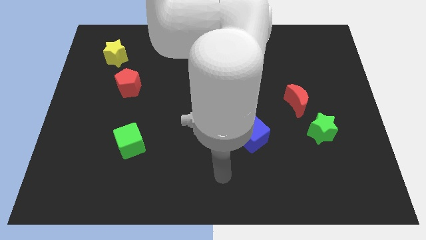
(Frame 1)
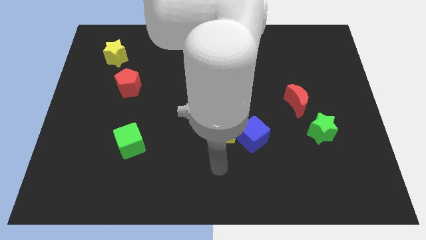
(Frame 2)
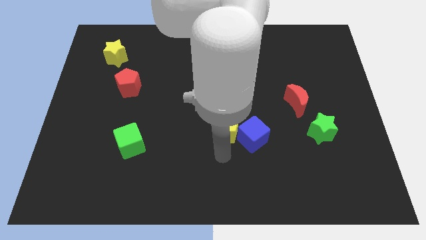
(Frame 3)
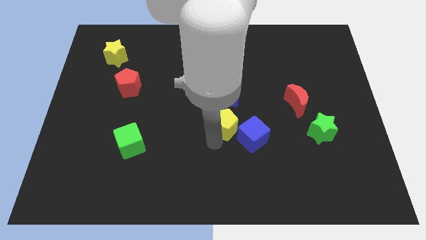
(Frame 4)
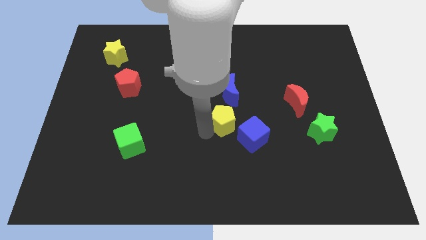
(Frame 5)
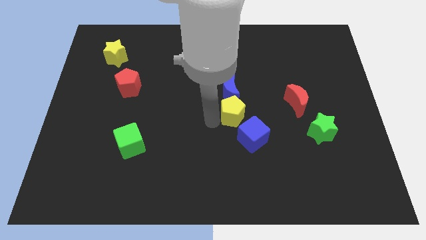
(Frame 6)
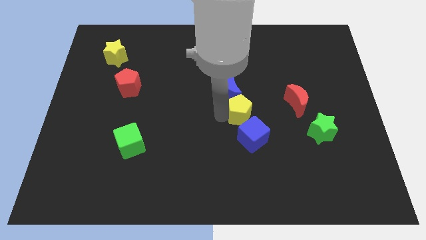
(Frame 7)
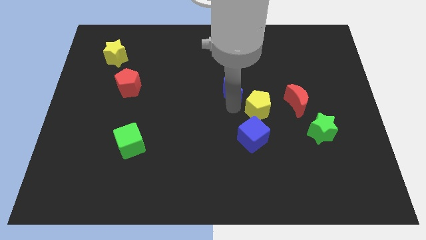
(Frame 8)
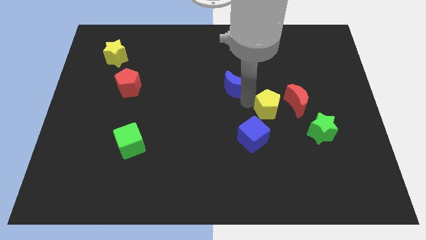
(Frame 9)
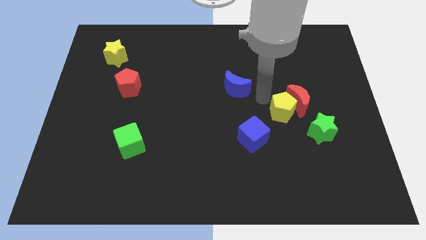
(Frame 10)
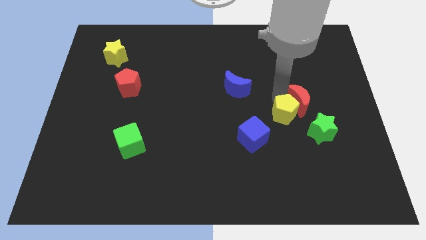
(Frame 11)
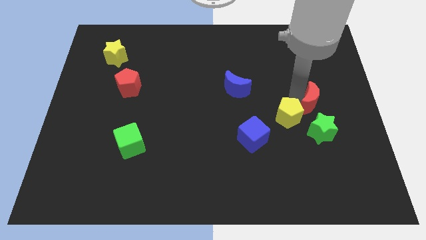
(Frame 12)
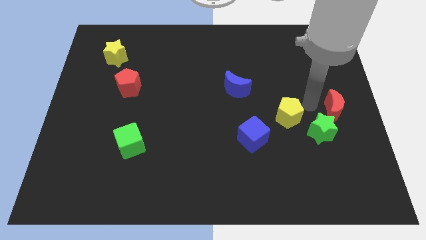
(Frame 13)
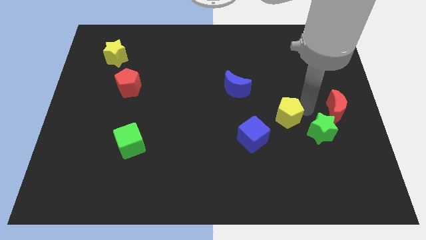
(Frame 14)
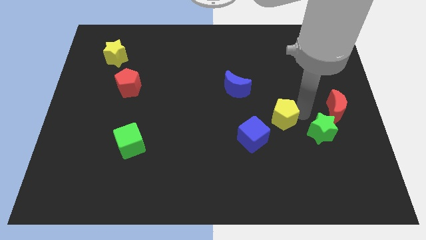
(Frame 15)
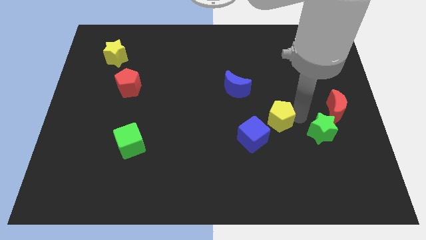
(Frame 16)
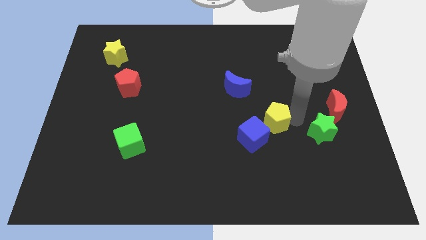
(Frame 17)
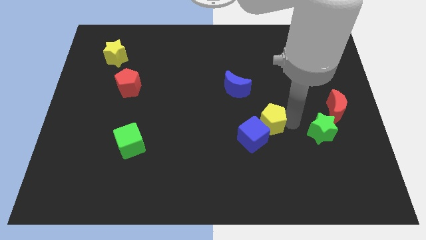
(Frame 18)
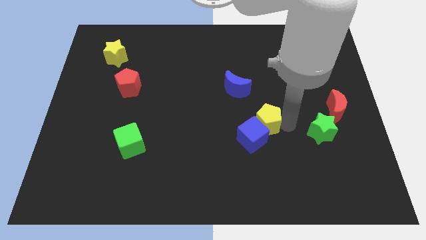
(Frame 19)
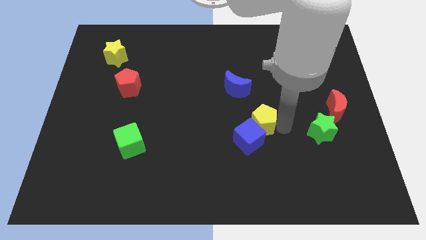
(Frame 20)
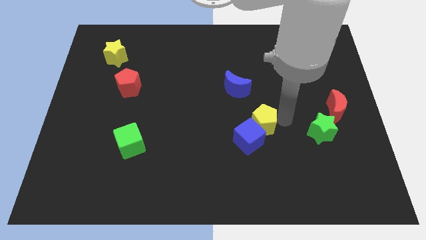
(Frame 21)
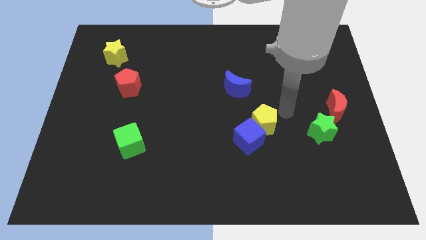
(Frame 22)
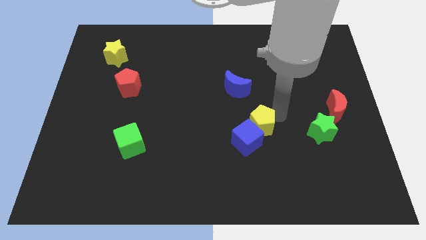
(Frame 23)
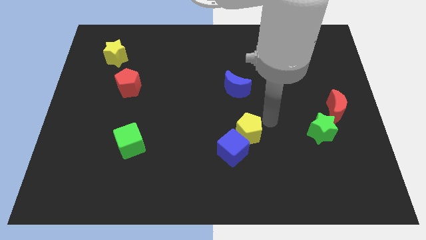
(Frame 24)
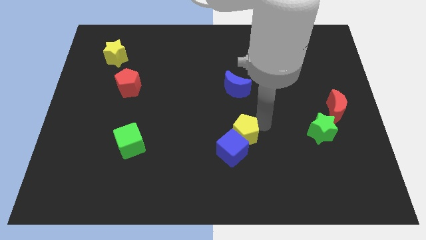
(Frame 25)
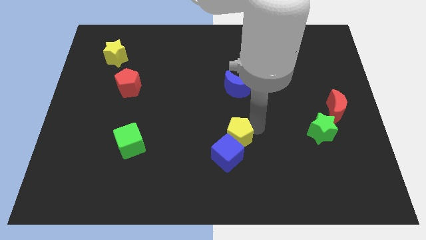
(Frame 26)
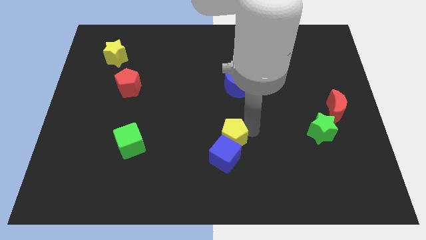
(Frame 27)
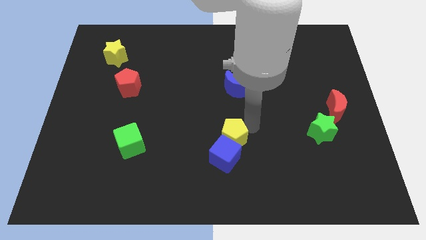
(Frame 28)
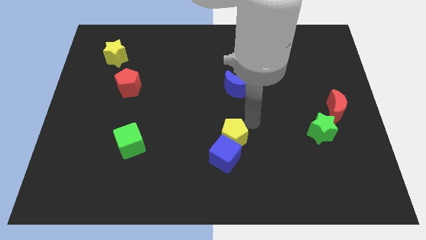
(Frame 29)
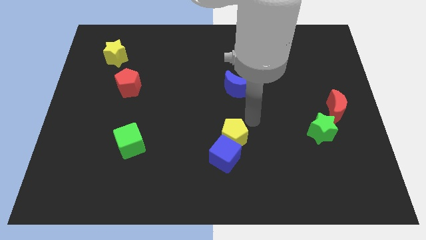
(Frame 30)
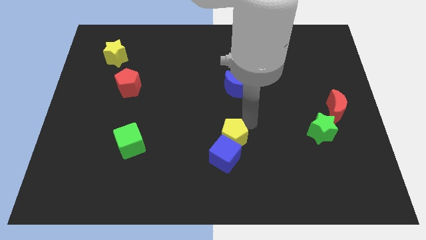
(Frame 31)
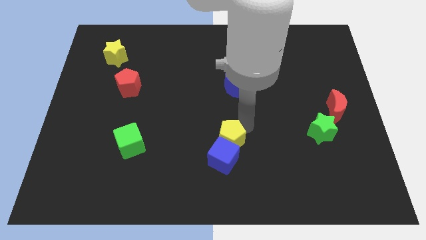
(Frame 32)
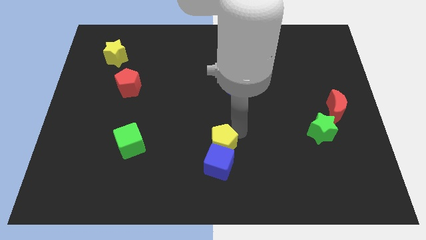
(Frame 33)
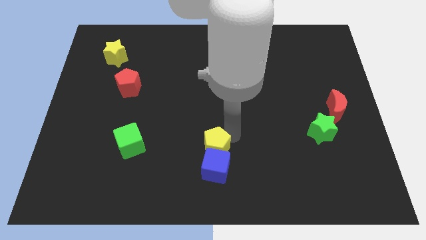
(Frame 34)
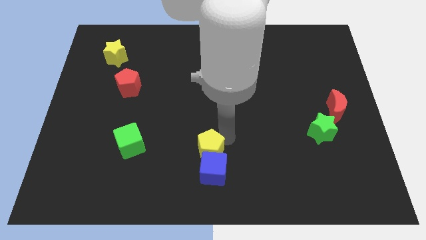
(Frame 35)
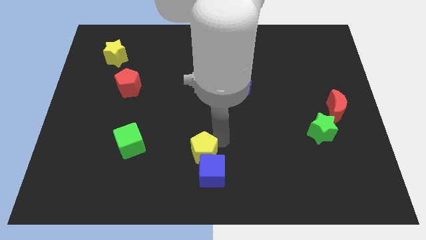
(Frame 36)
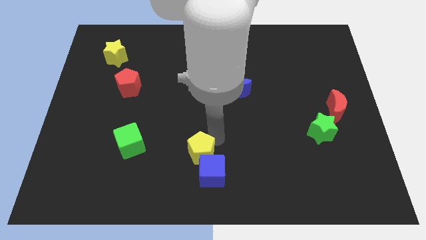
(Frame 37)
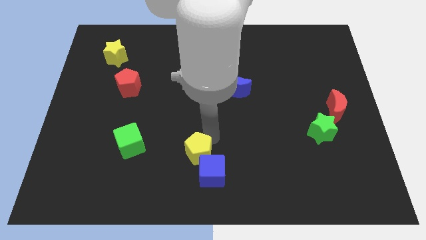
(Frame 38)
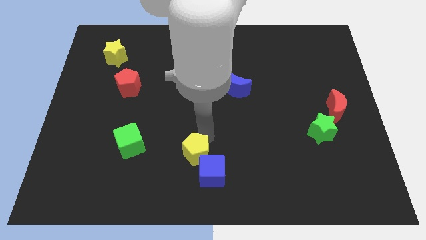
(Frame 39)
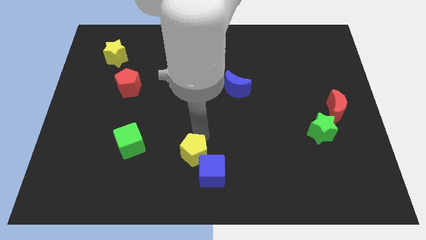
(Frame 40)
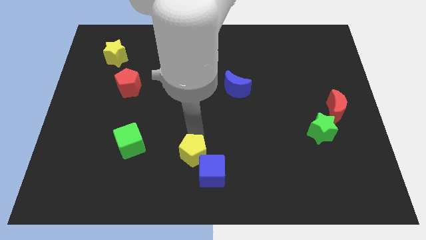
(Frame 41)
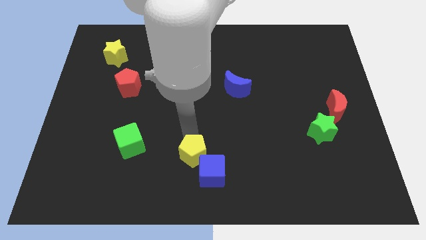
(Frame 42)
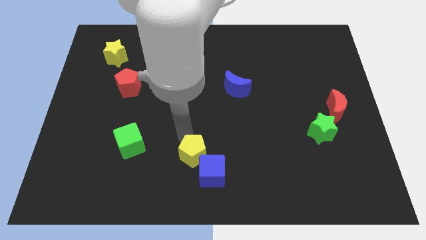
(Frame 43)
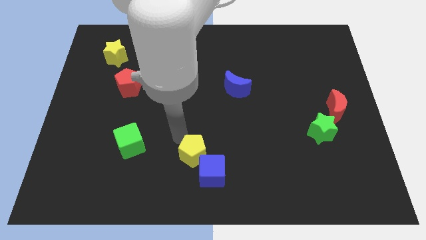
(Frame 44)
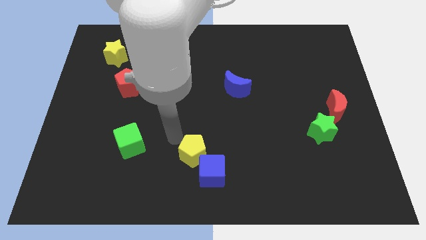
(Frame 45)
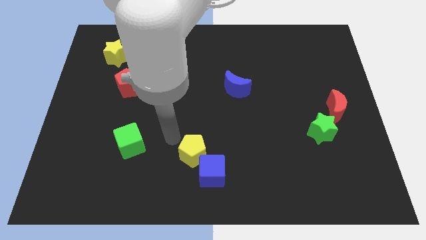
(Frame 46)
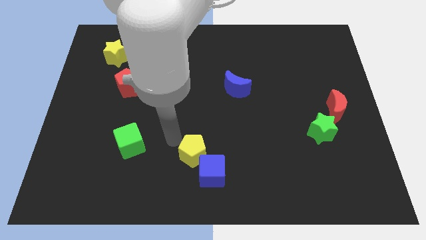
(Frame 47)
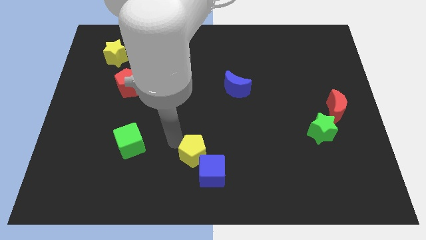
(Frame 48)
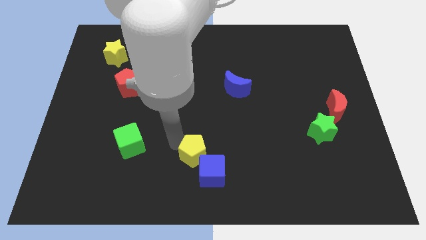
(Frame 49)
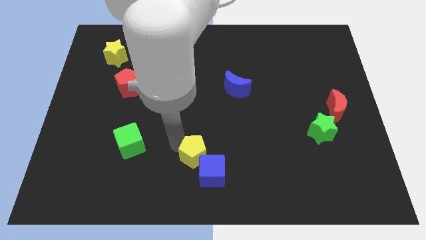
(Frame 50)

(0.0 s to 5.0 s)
put the yellow pentagon to the bottom

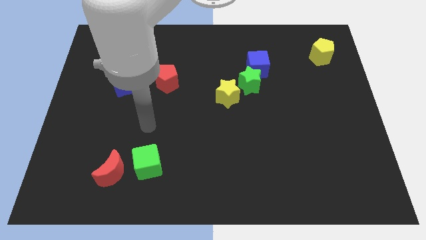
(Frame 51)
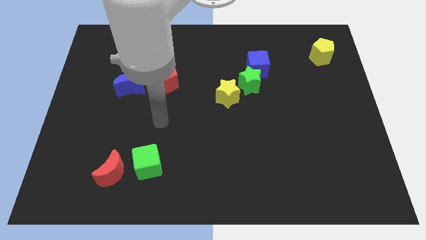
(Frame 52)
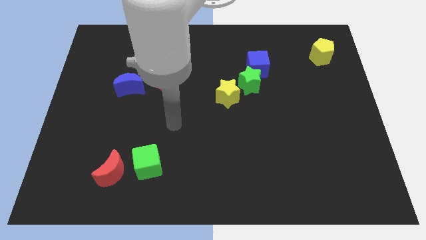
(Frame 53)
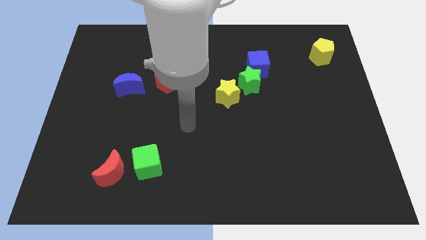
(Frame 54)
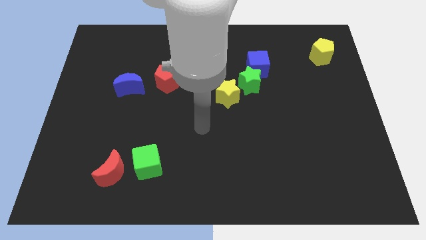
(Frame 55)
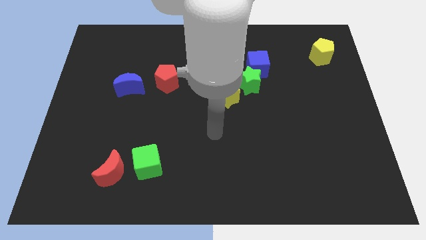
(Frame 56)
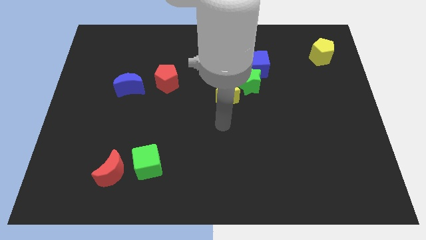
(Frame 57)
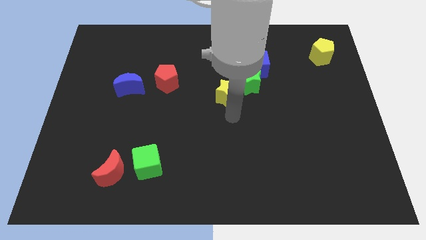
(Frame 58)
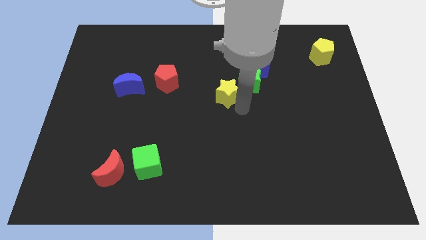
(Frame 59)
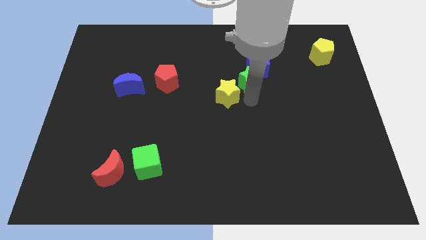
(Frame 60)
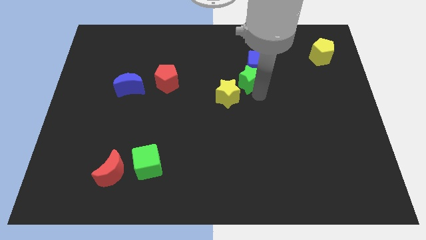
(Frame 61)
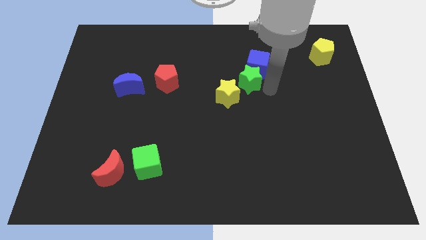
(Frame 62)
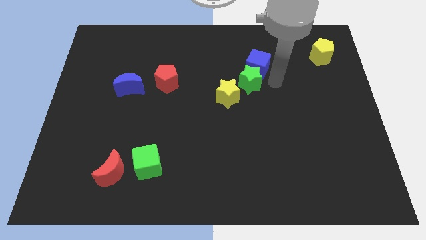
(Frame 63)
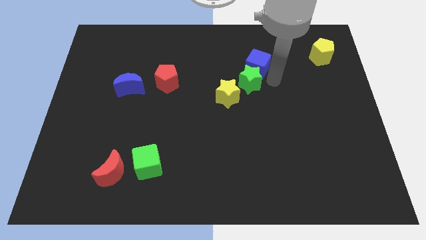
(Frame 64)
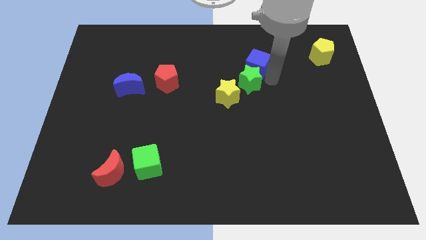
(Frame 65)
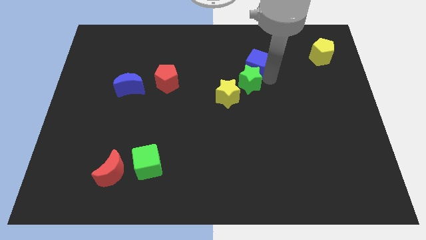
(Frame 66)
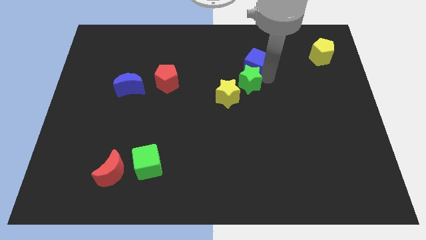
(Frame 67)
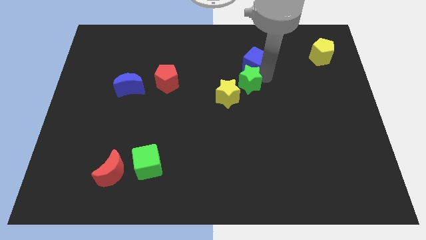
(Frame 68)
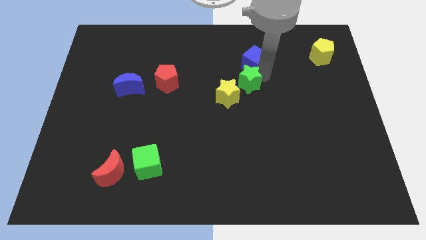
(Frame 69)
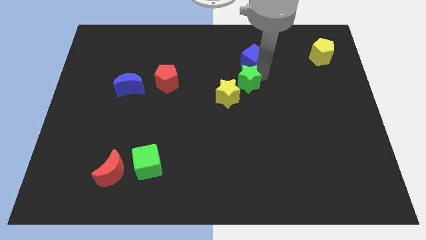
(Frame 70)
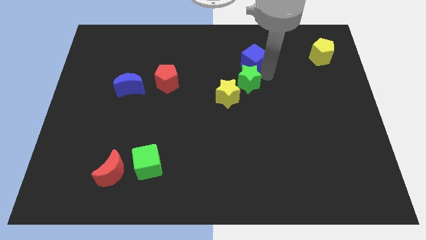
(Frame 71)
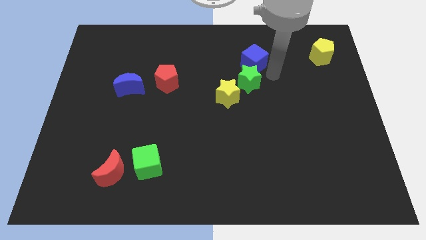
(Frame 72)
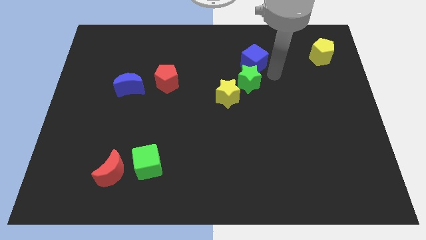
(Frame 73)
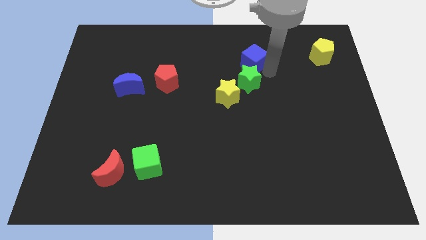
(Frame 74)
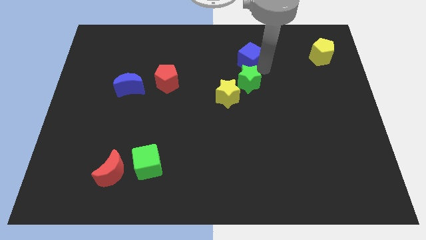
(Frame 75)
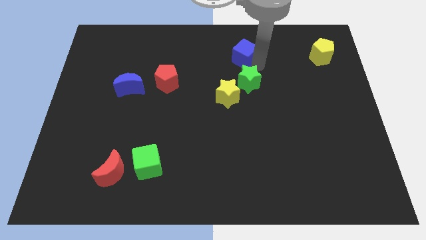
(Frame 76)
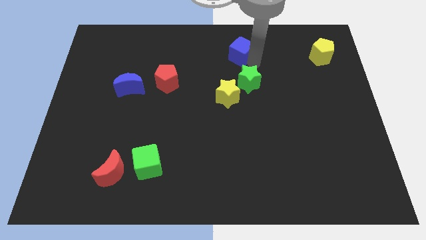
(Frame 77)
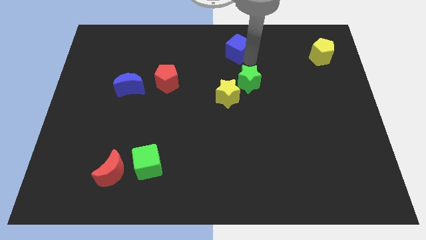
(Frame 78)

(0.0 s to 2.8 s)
push the blue cube to the top
